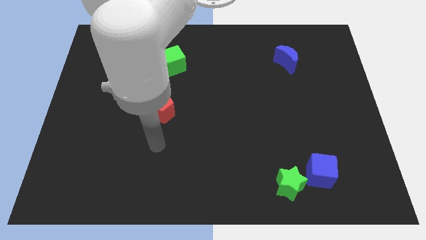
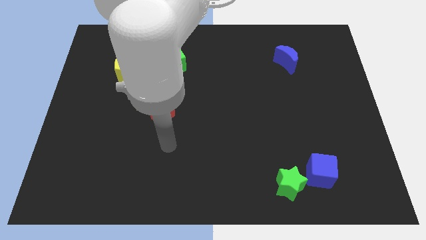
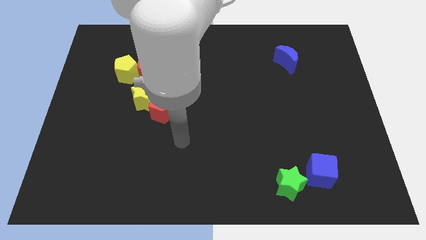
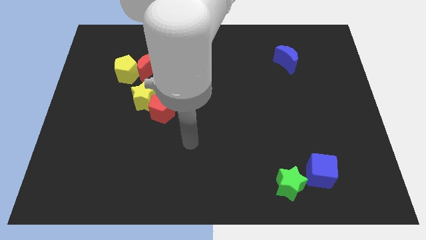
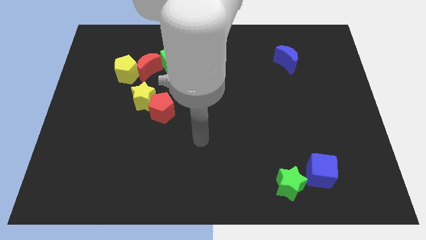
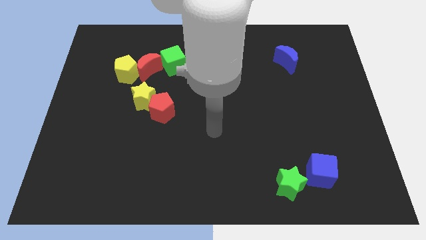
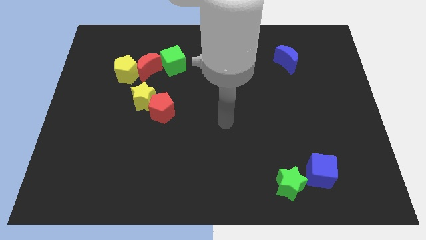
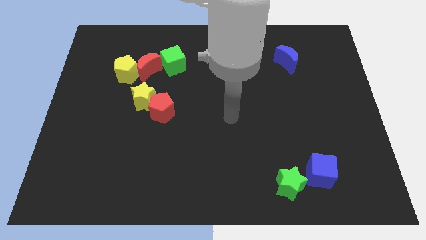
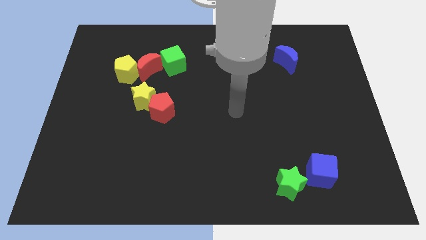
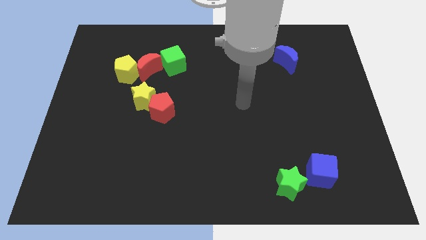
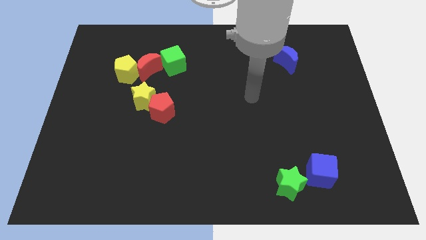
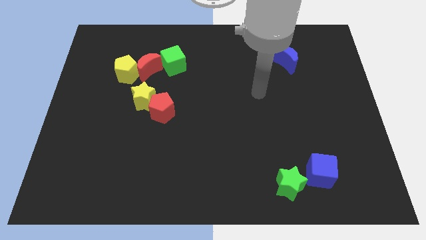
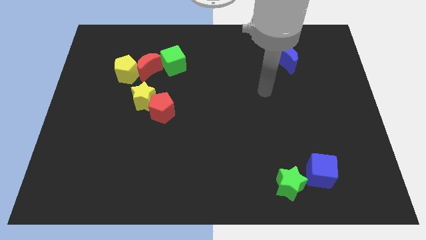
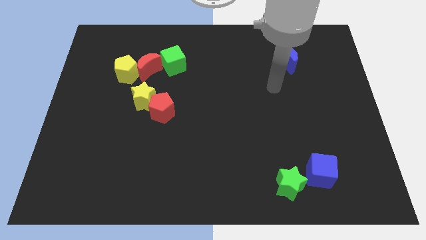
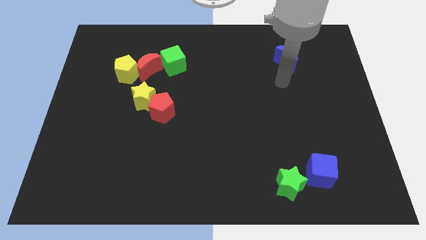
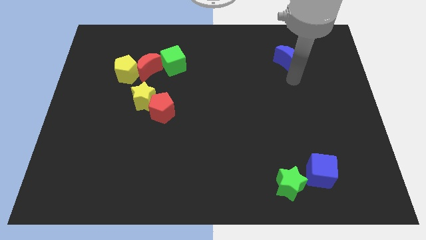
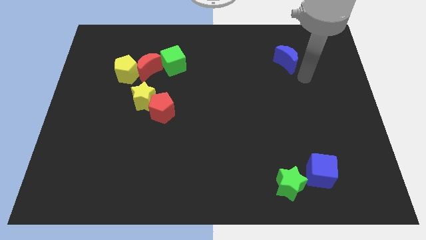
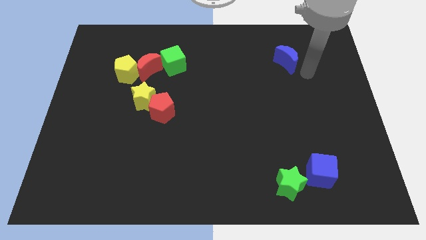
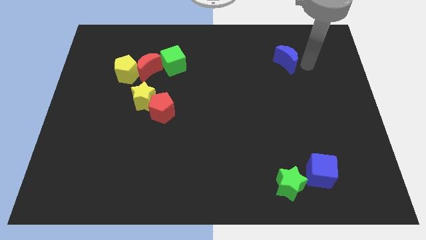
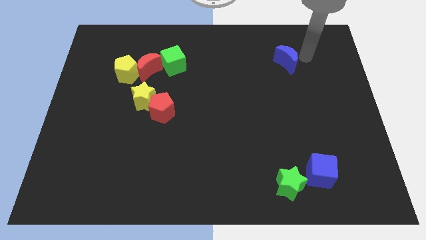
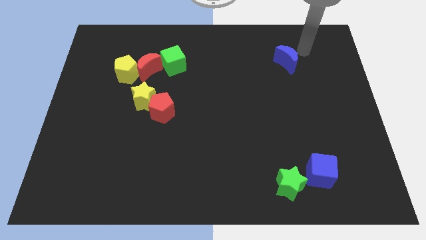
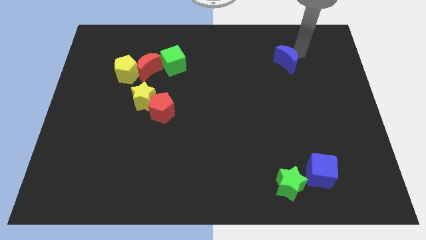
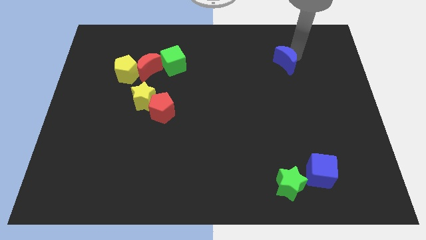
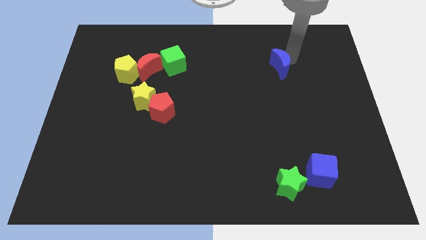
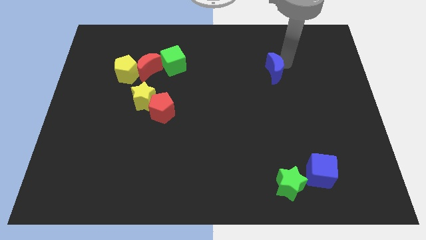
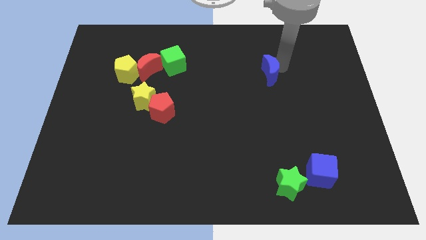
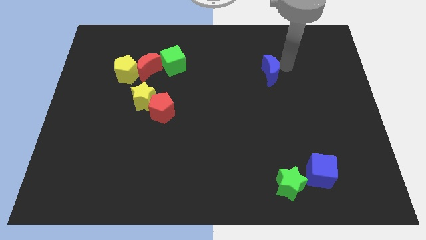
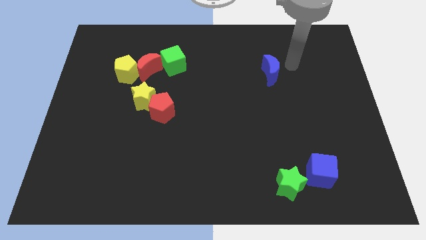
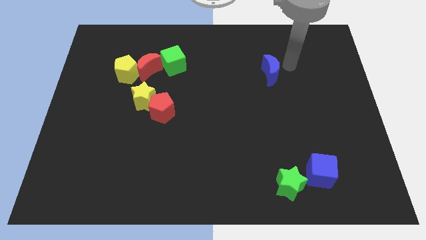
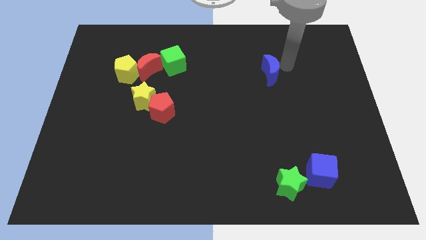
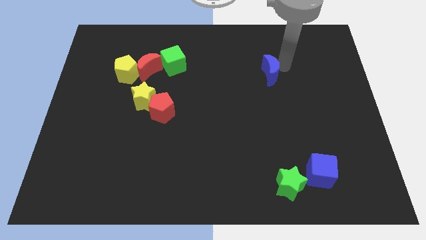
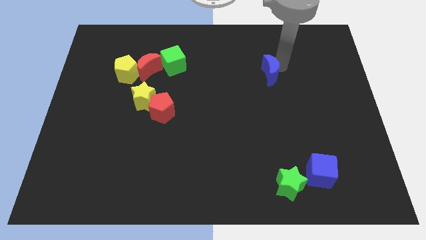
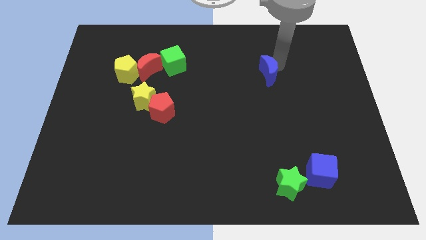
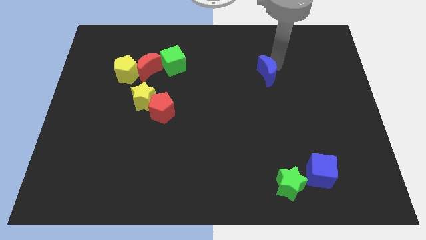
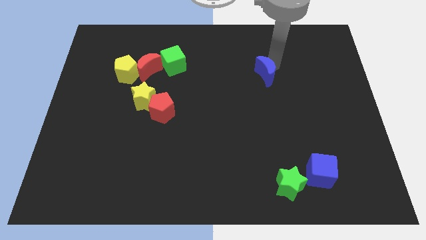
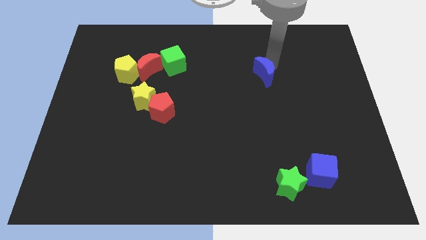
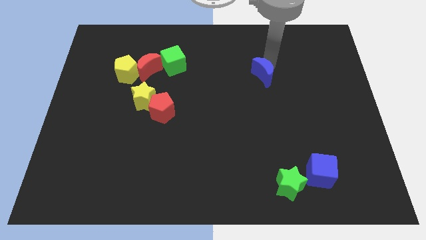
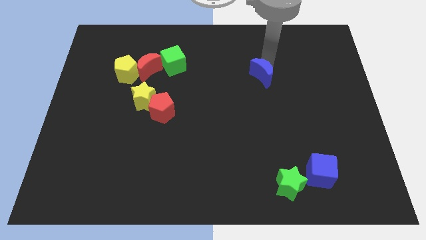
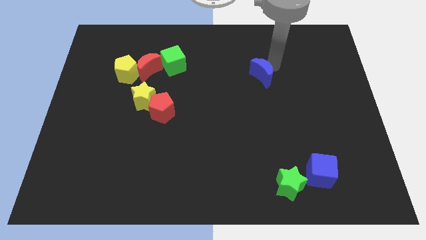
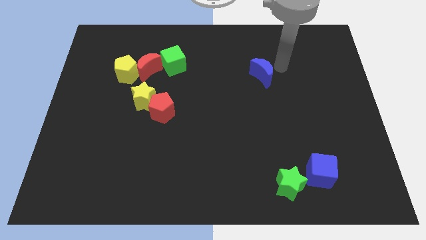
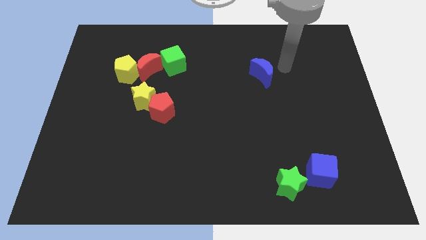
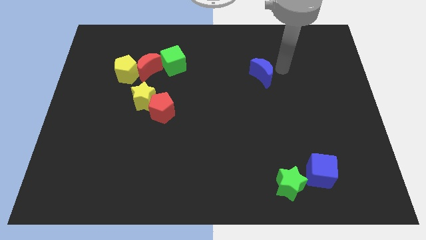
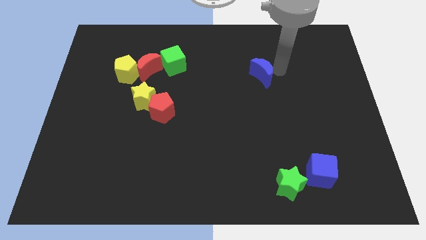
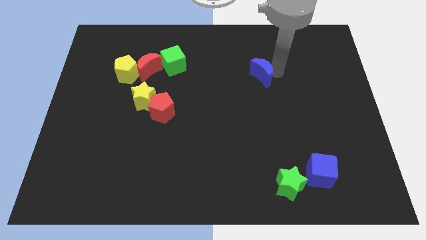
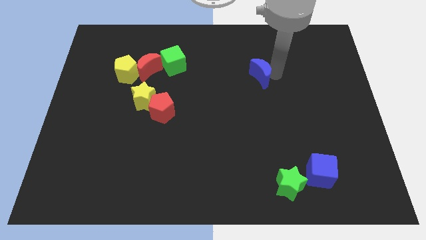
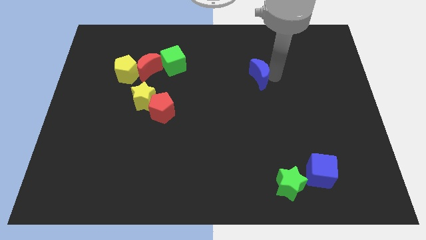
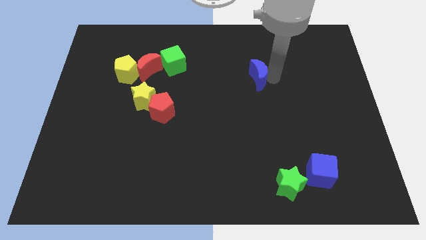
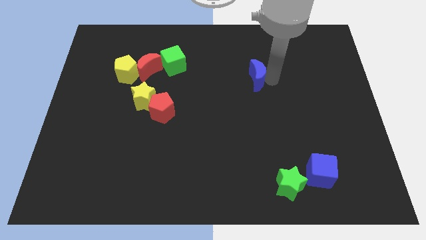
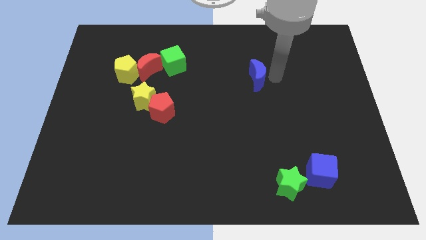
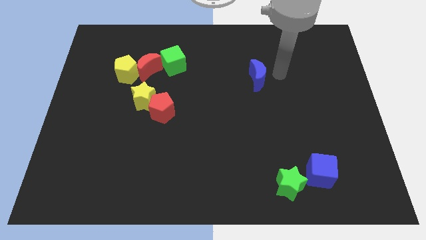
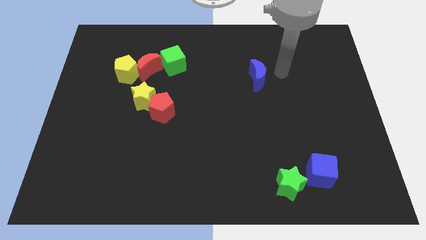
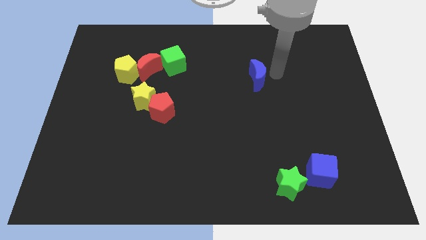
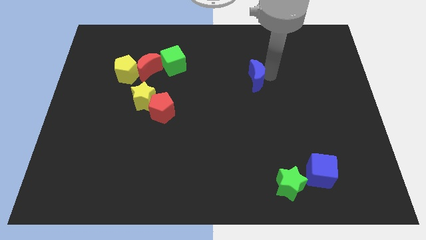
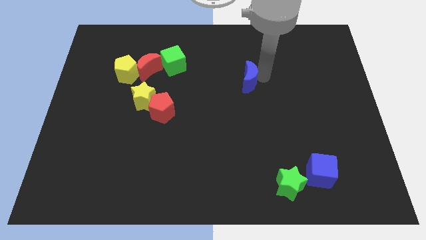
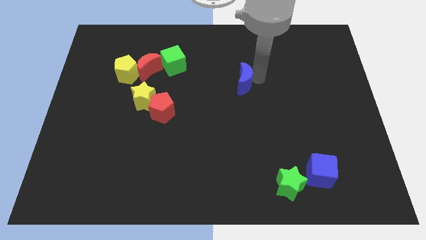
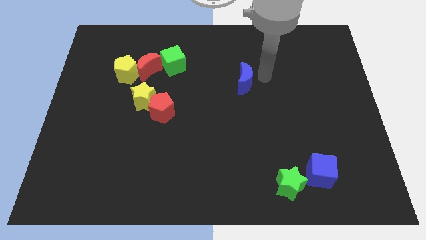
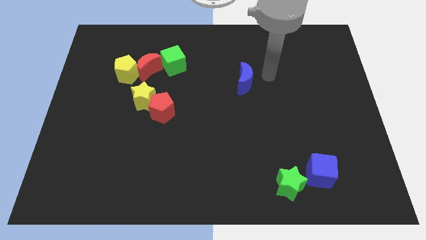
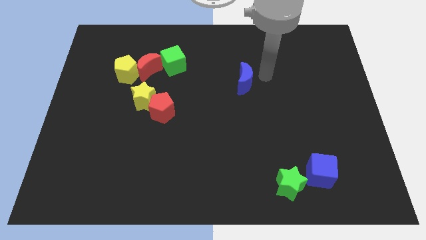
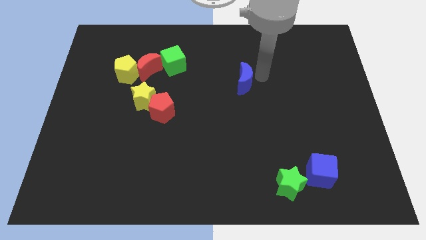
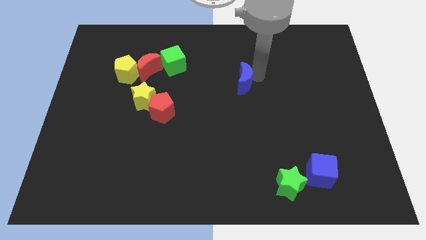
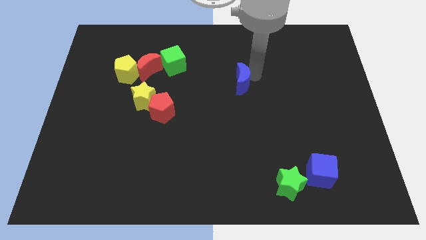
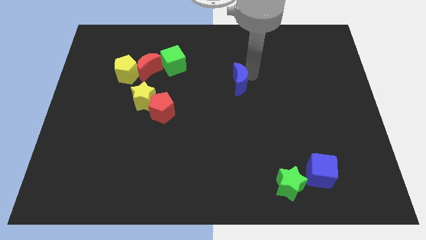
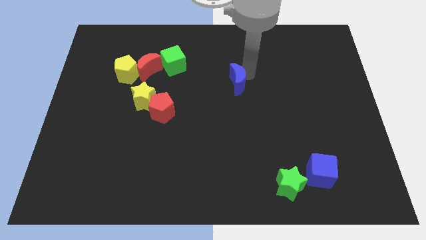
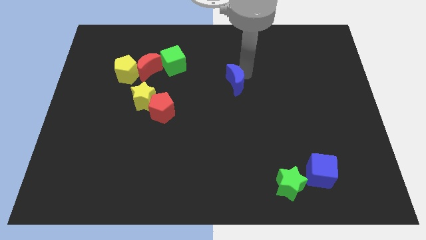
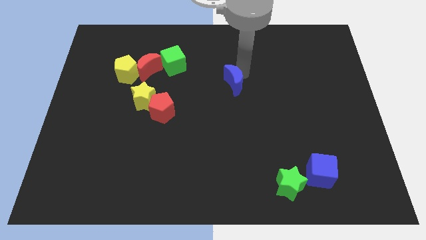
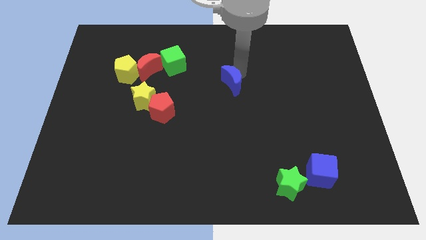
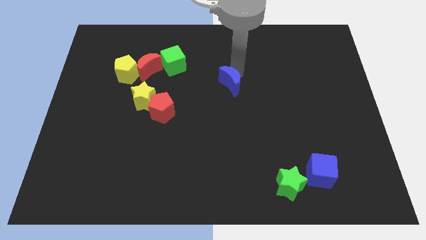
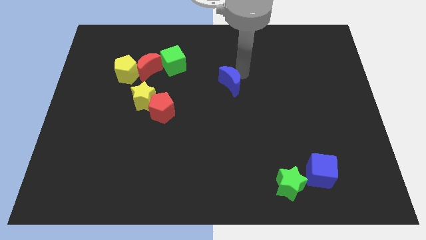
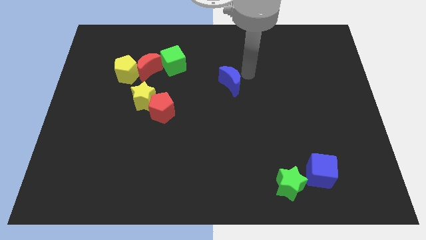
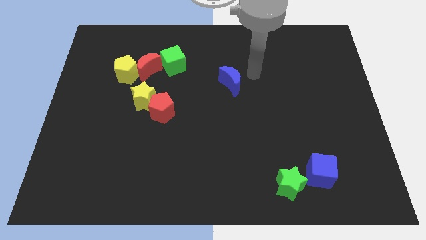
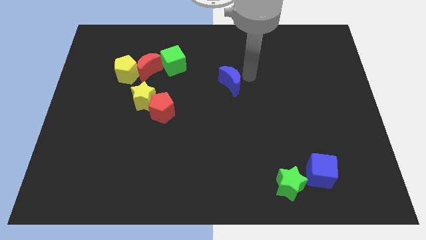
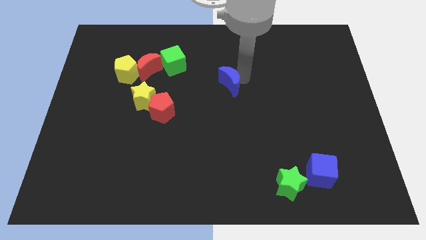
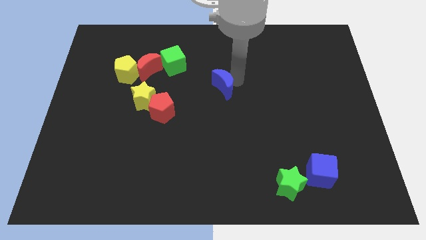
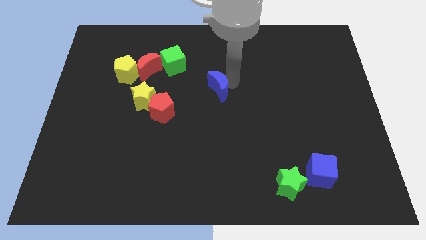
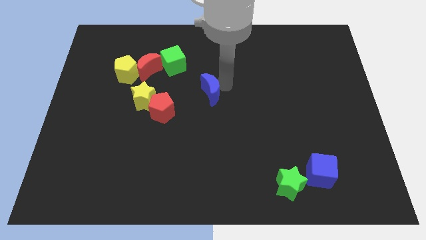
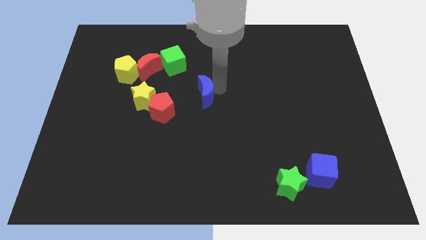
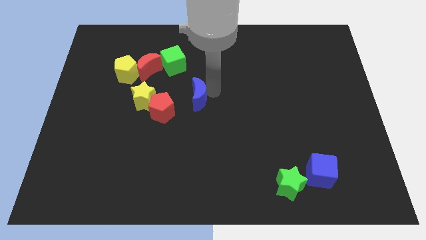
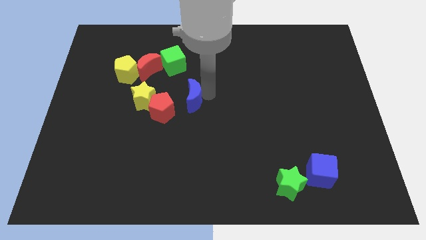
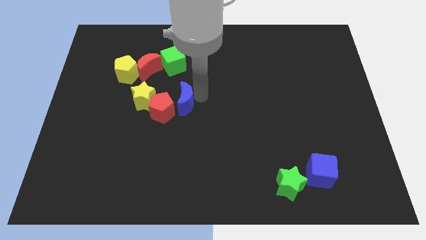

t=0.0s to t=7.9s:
put the blue moon close to the red pentagon
